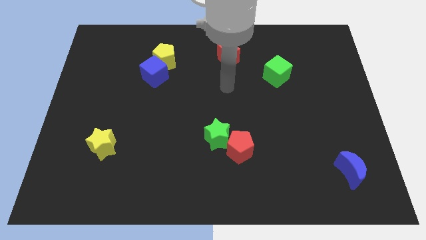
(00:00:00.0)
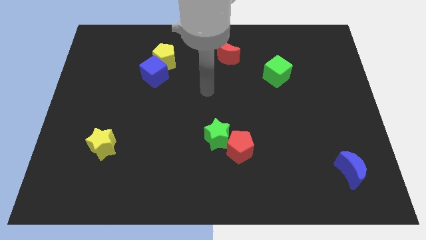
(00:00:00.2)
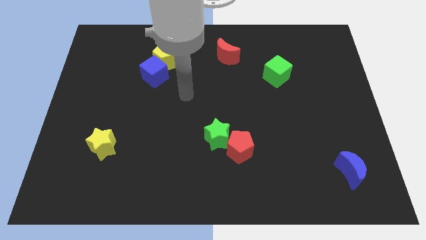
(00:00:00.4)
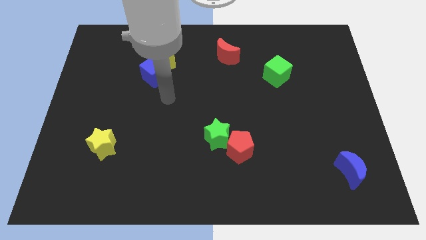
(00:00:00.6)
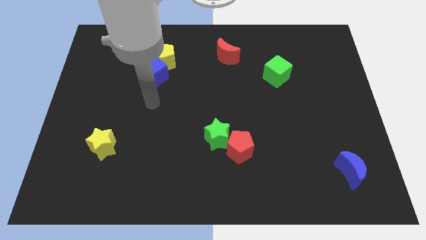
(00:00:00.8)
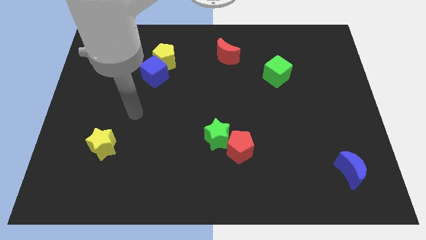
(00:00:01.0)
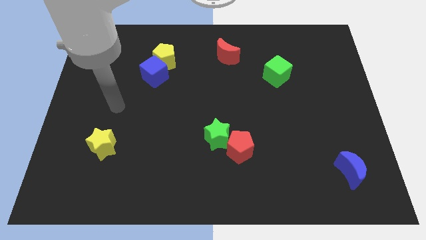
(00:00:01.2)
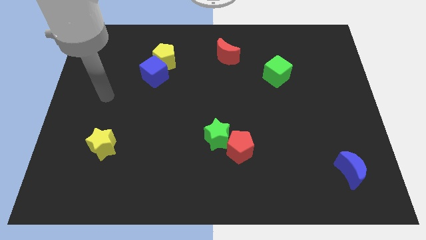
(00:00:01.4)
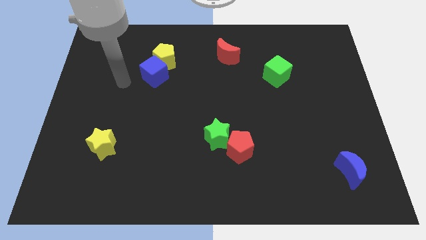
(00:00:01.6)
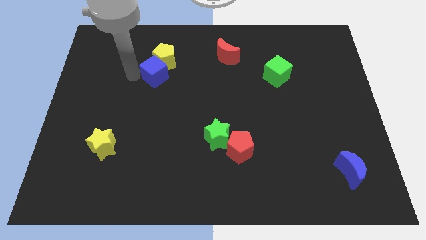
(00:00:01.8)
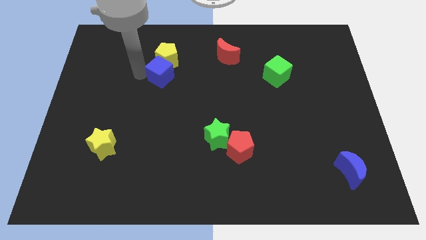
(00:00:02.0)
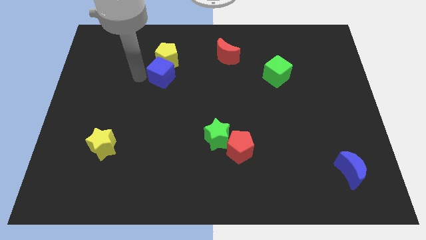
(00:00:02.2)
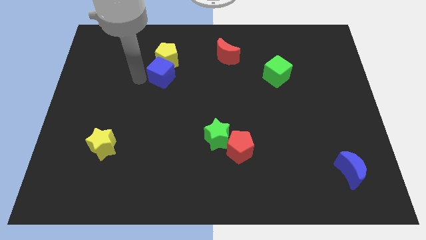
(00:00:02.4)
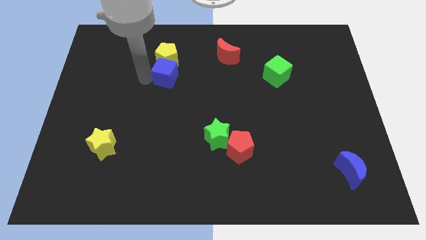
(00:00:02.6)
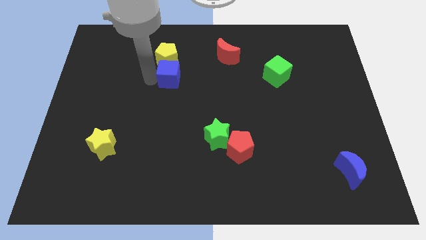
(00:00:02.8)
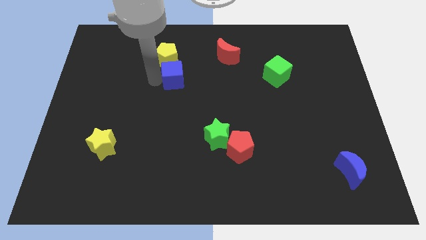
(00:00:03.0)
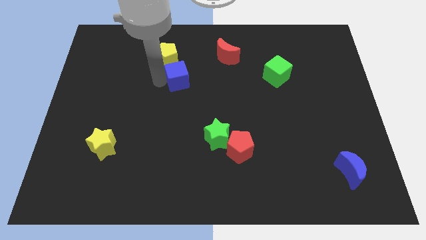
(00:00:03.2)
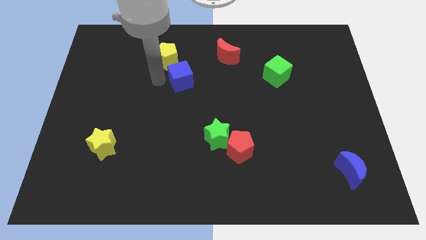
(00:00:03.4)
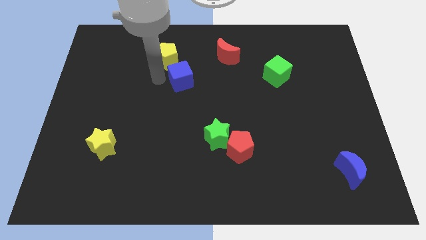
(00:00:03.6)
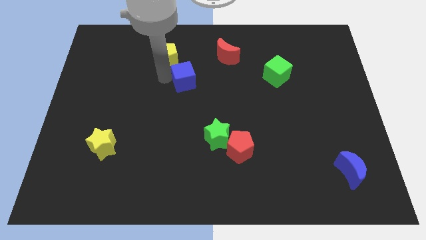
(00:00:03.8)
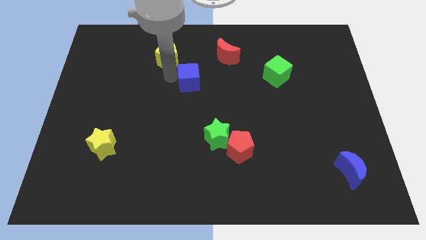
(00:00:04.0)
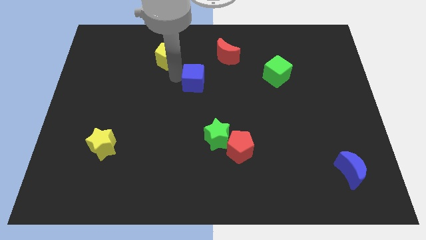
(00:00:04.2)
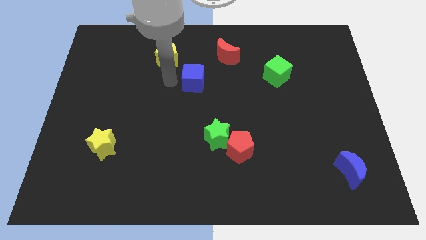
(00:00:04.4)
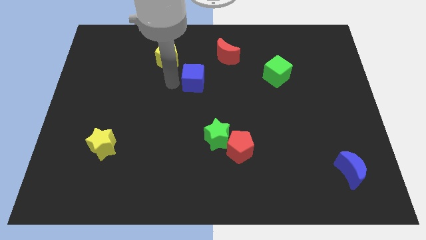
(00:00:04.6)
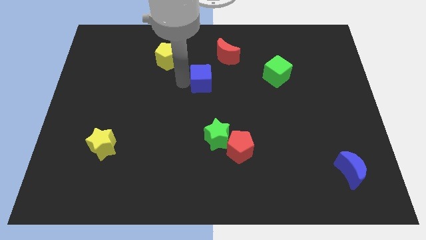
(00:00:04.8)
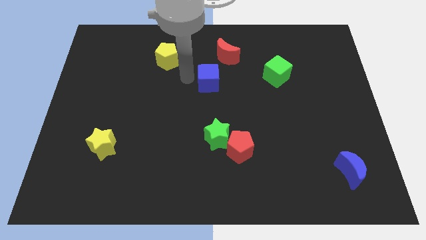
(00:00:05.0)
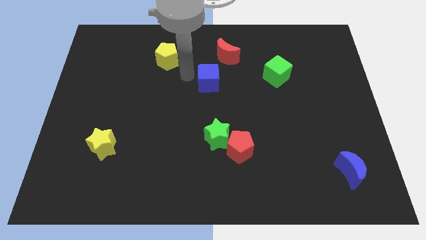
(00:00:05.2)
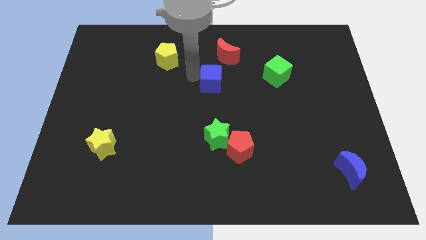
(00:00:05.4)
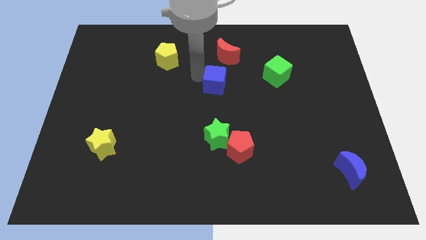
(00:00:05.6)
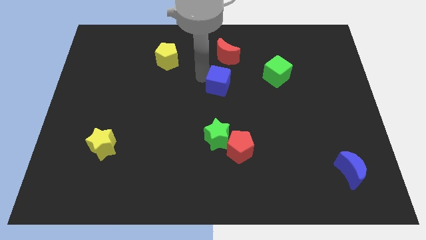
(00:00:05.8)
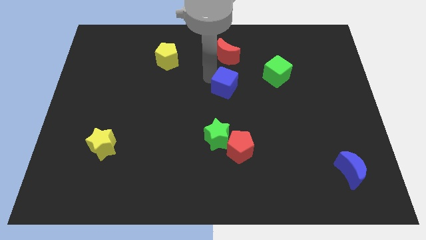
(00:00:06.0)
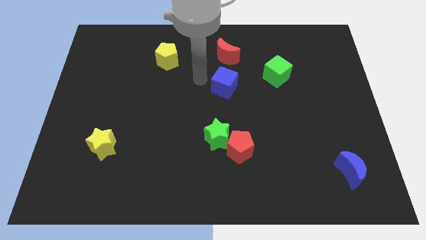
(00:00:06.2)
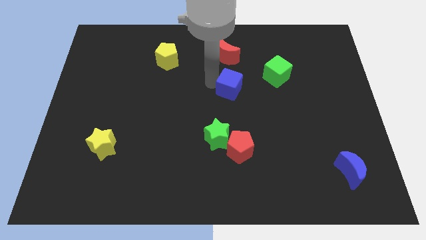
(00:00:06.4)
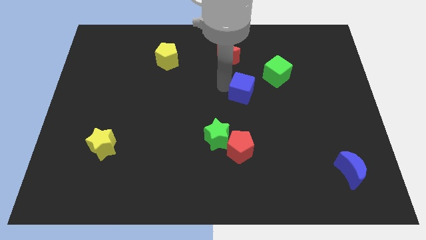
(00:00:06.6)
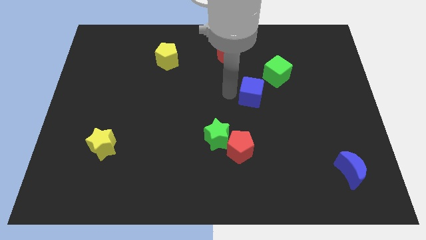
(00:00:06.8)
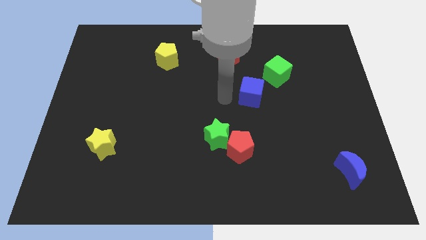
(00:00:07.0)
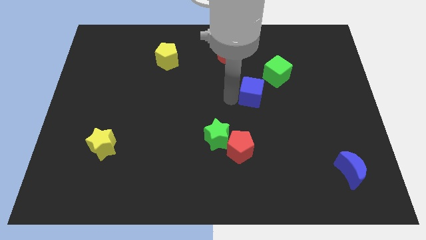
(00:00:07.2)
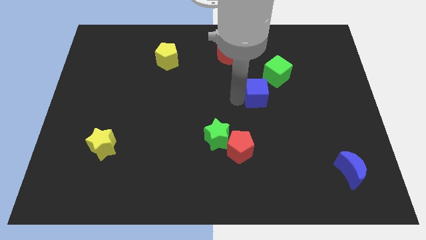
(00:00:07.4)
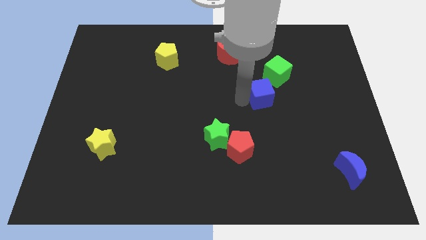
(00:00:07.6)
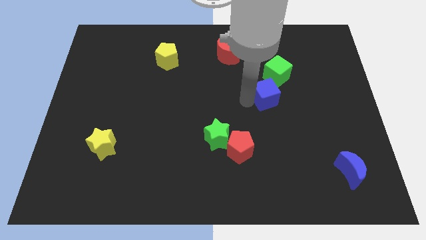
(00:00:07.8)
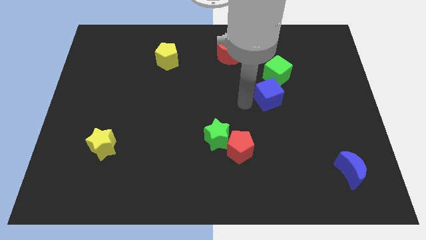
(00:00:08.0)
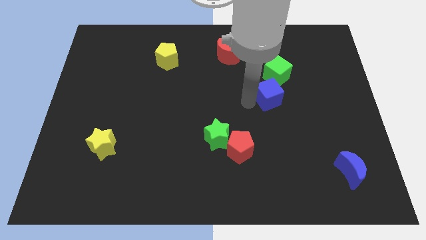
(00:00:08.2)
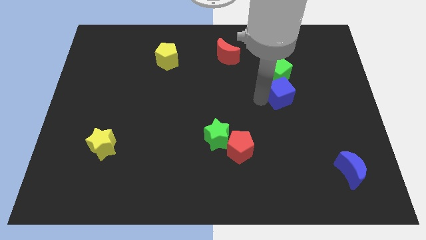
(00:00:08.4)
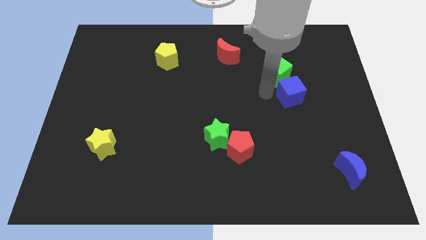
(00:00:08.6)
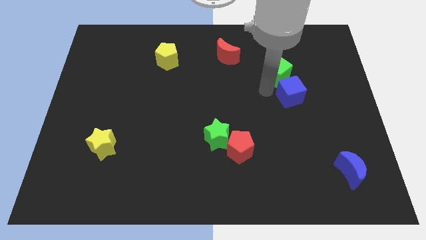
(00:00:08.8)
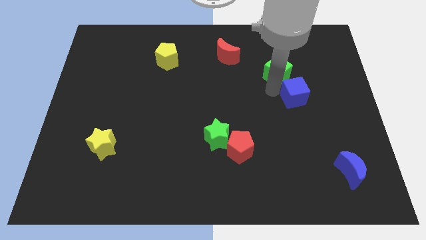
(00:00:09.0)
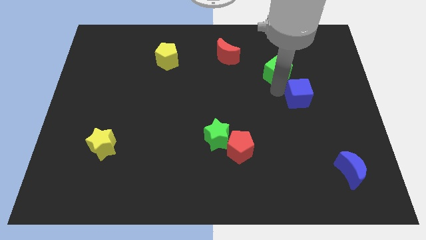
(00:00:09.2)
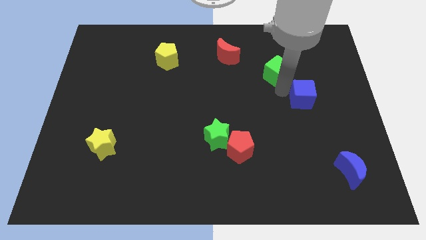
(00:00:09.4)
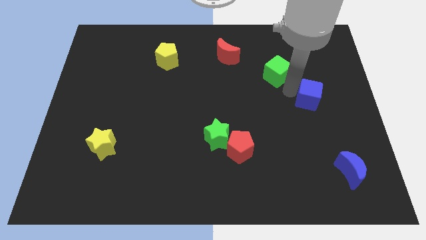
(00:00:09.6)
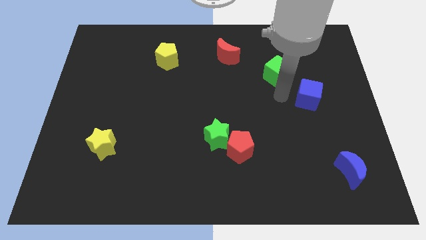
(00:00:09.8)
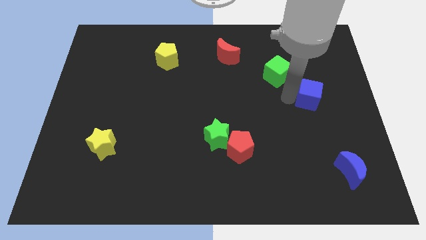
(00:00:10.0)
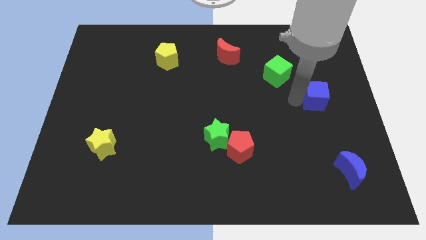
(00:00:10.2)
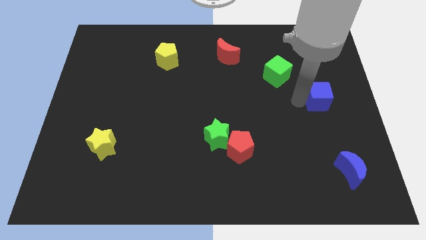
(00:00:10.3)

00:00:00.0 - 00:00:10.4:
slide the blue cube to the right side

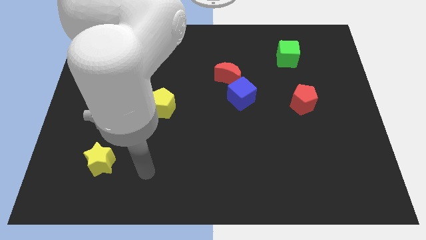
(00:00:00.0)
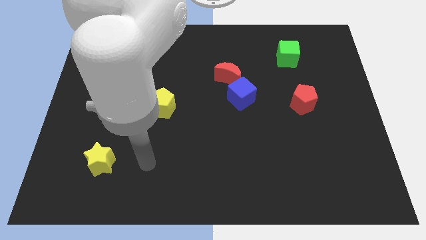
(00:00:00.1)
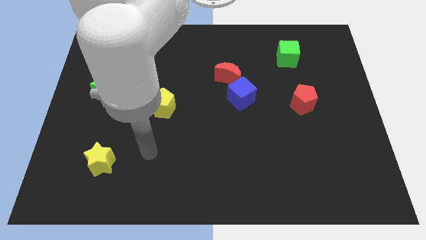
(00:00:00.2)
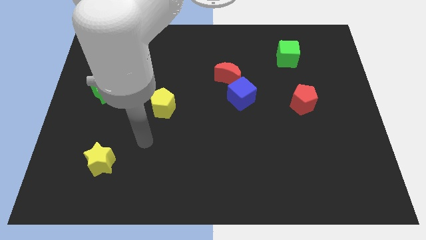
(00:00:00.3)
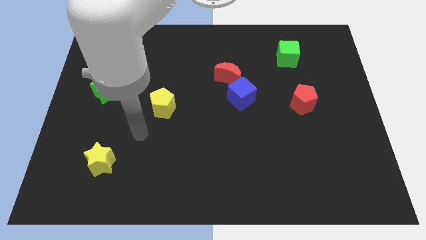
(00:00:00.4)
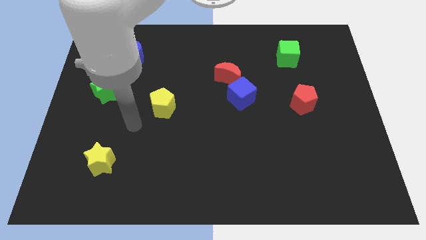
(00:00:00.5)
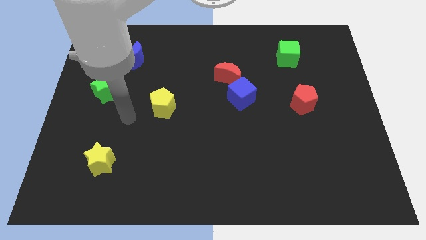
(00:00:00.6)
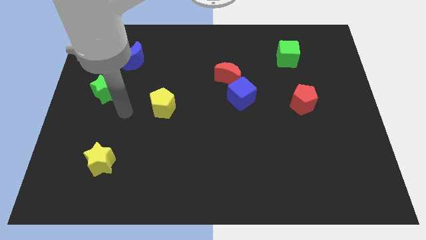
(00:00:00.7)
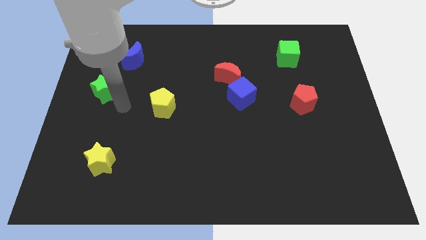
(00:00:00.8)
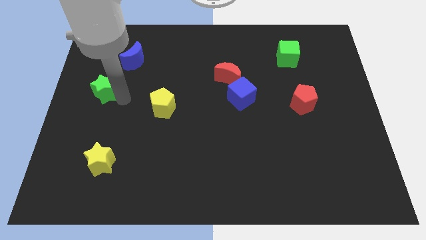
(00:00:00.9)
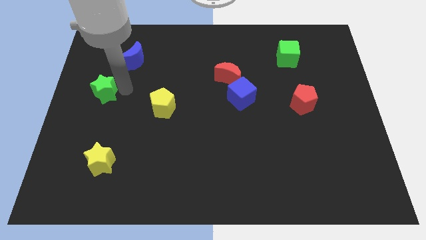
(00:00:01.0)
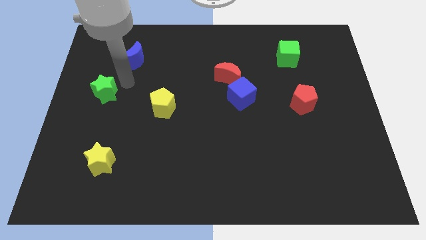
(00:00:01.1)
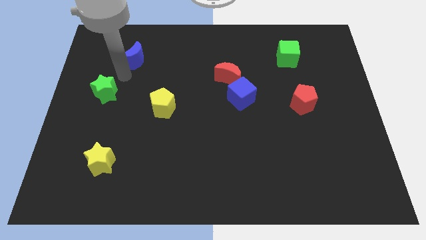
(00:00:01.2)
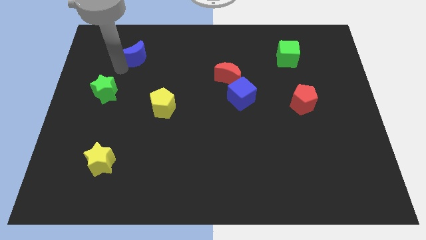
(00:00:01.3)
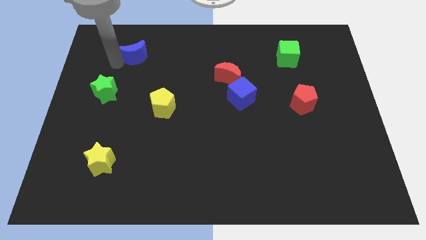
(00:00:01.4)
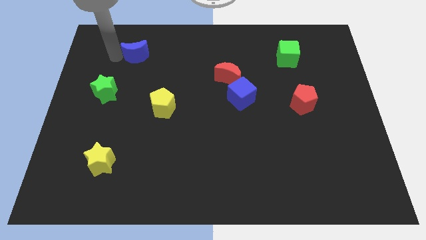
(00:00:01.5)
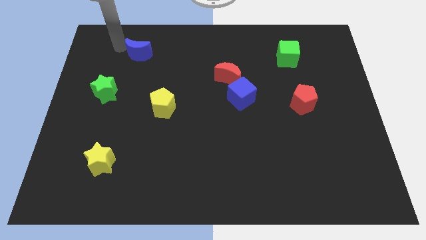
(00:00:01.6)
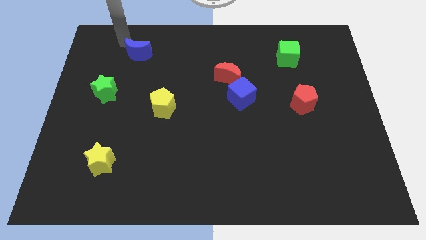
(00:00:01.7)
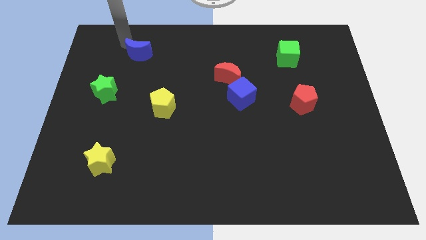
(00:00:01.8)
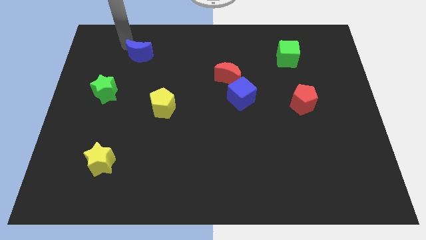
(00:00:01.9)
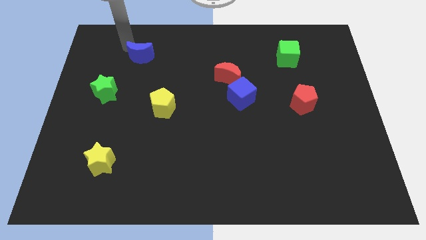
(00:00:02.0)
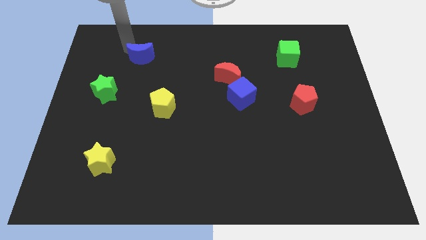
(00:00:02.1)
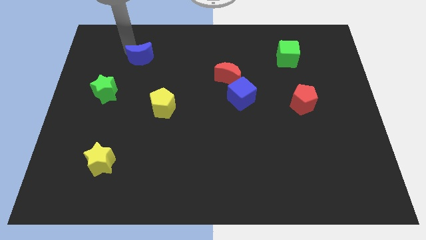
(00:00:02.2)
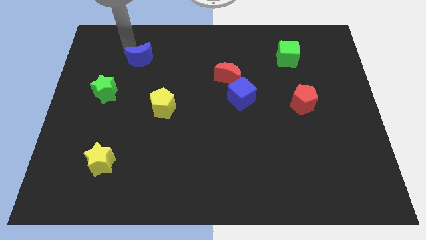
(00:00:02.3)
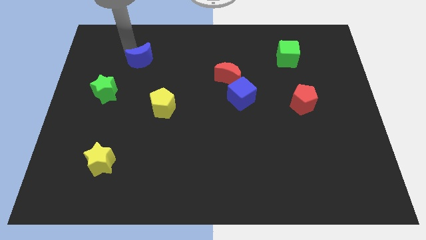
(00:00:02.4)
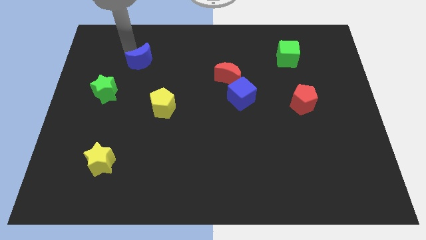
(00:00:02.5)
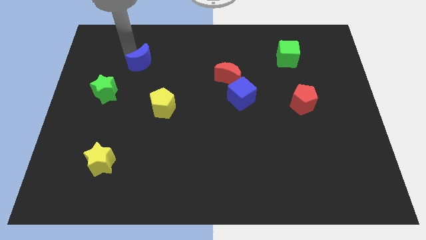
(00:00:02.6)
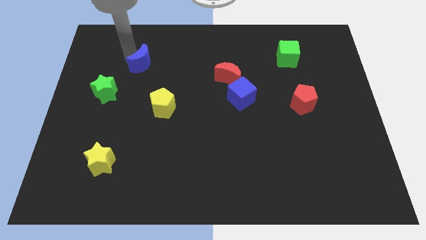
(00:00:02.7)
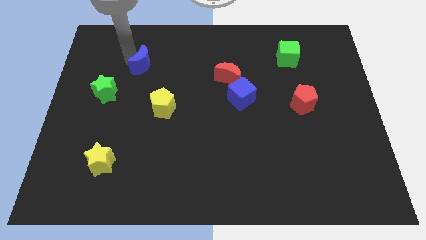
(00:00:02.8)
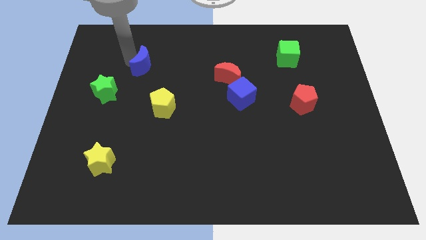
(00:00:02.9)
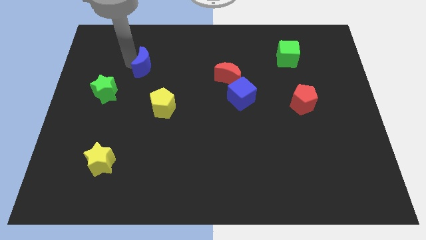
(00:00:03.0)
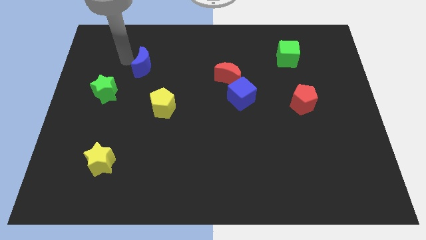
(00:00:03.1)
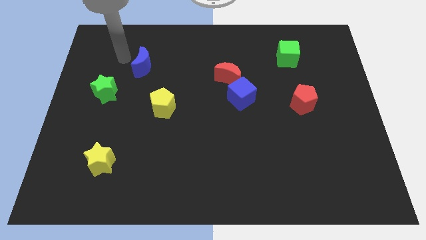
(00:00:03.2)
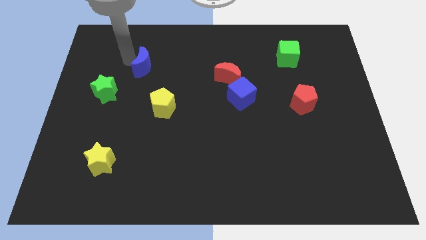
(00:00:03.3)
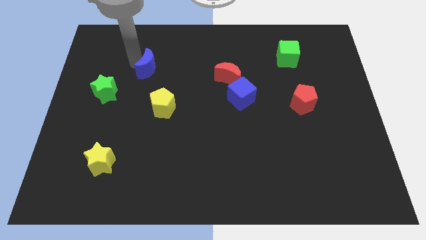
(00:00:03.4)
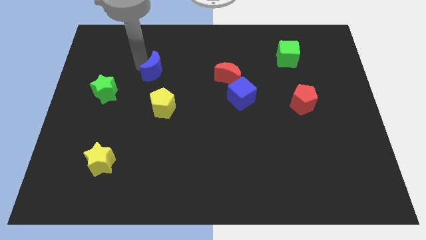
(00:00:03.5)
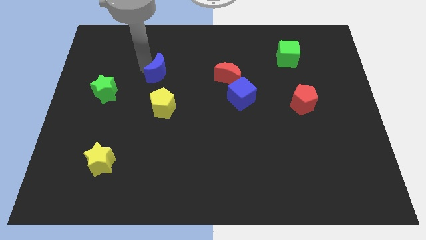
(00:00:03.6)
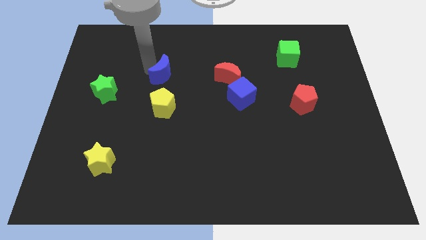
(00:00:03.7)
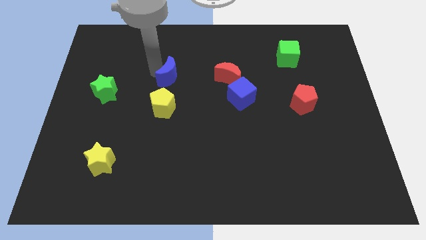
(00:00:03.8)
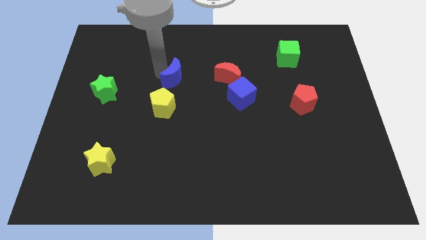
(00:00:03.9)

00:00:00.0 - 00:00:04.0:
slide the blue moon to the middle of the board
